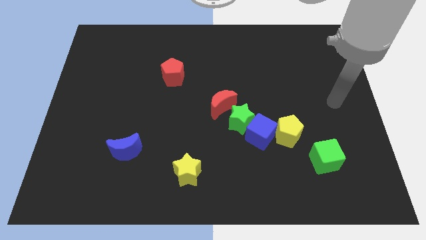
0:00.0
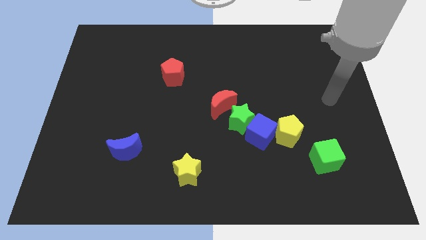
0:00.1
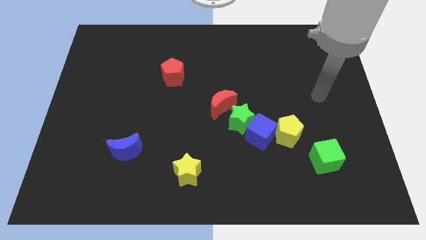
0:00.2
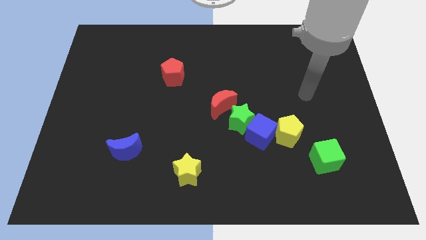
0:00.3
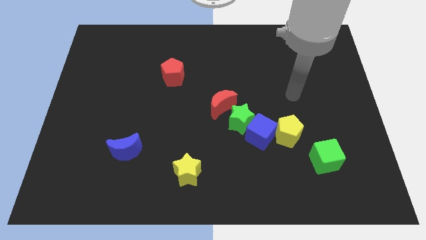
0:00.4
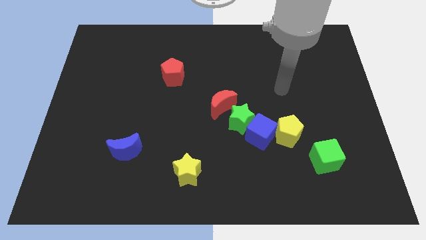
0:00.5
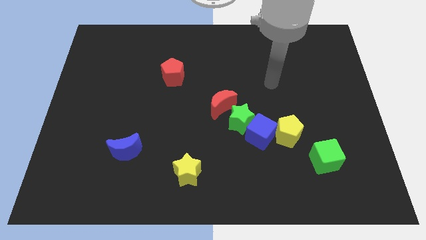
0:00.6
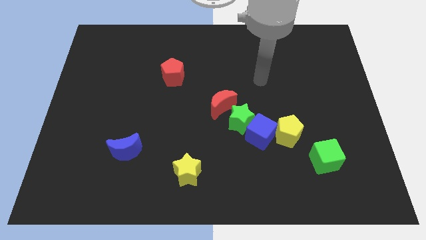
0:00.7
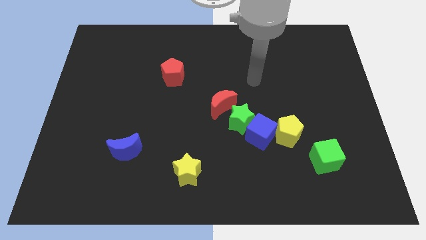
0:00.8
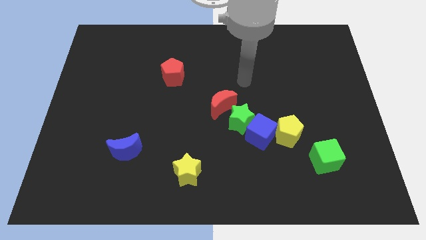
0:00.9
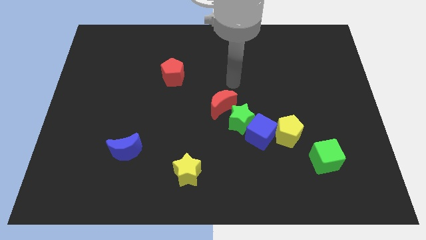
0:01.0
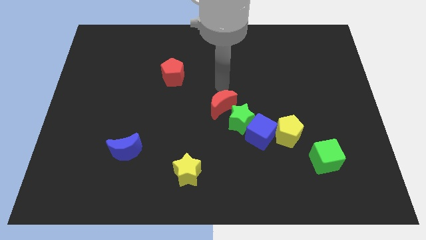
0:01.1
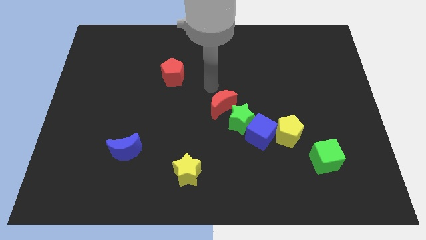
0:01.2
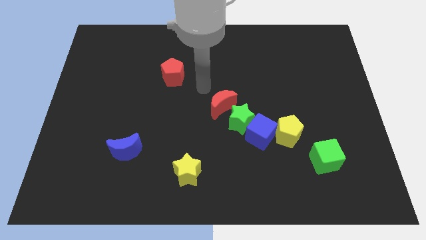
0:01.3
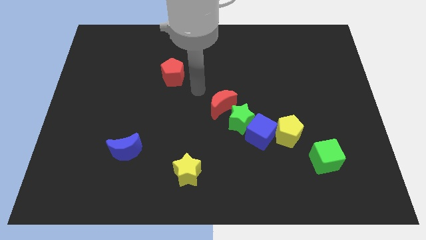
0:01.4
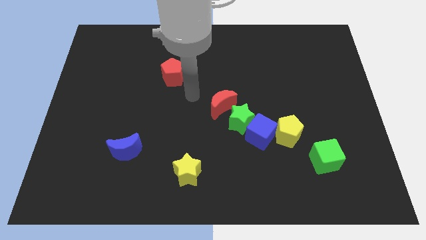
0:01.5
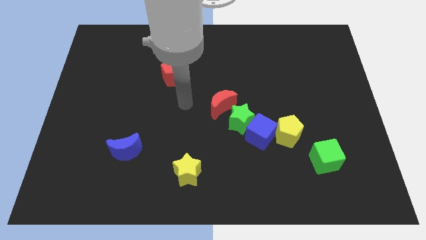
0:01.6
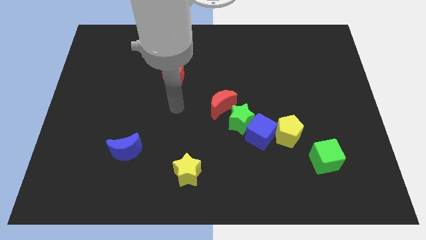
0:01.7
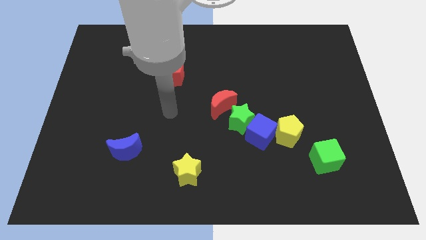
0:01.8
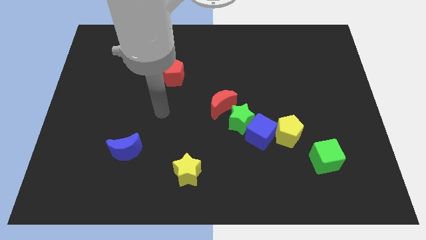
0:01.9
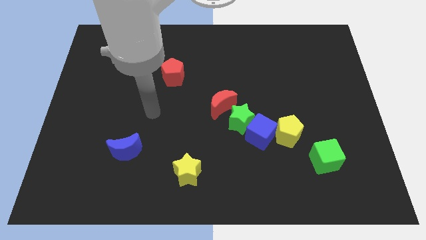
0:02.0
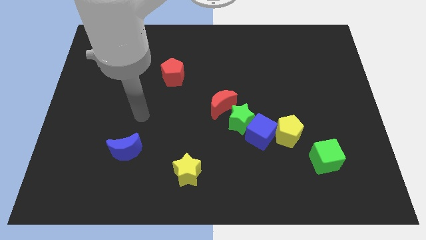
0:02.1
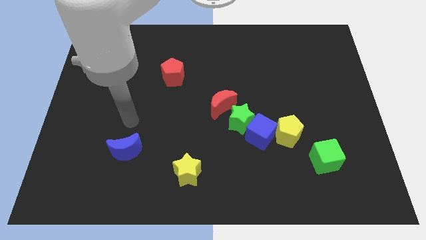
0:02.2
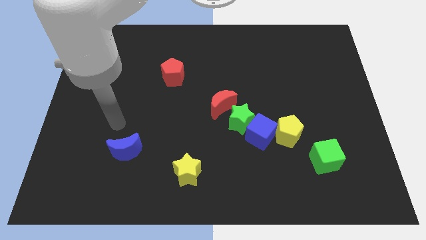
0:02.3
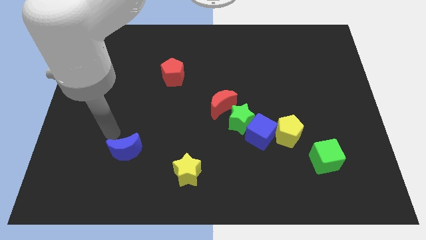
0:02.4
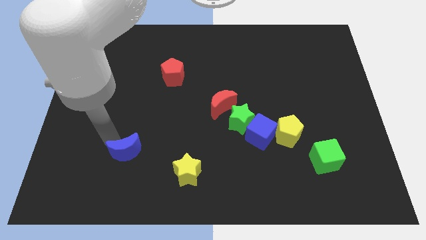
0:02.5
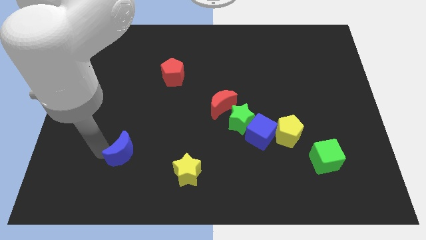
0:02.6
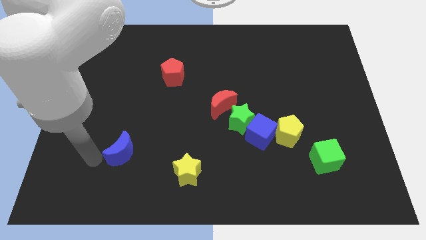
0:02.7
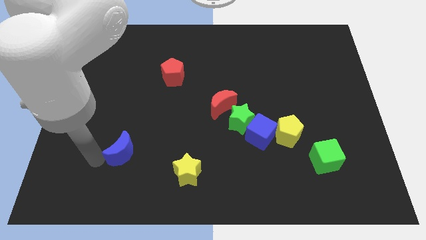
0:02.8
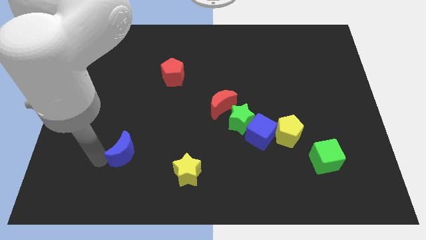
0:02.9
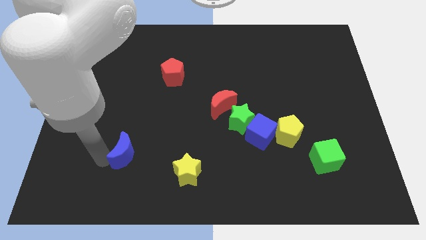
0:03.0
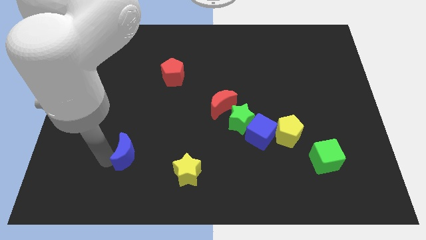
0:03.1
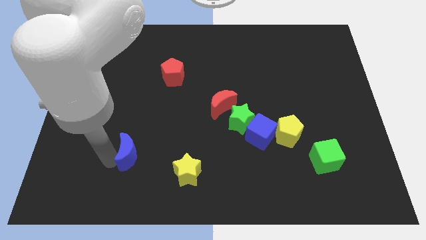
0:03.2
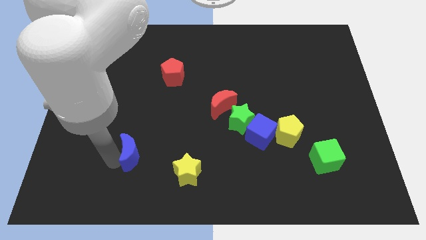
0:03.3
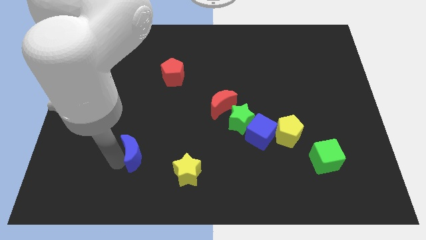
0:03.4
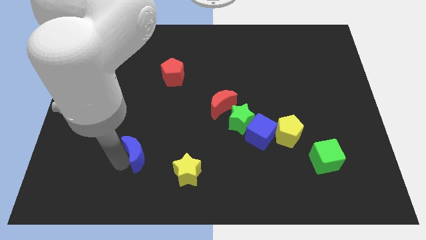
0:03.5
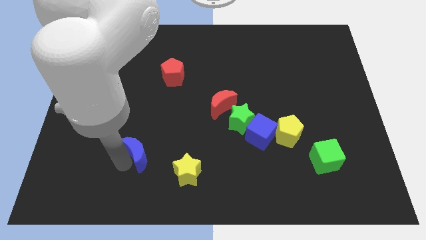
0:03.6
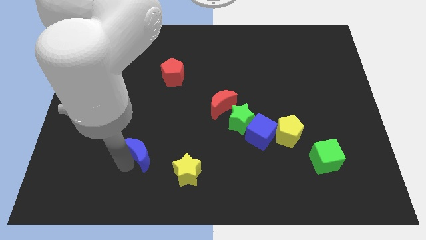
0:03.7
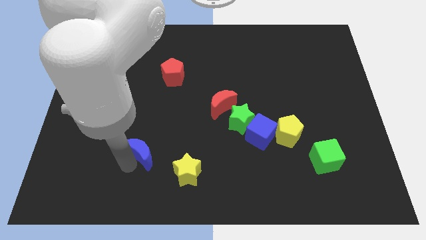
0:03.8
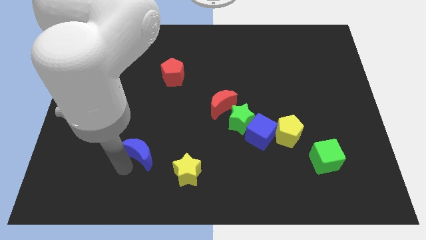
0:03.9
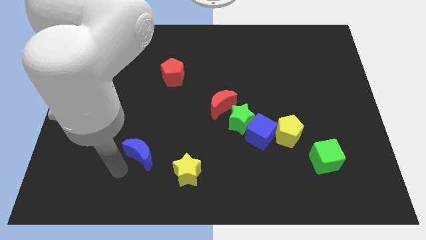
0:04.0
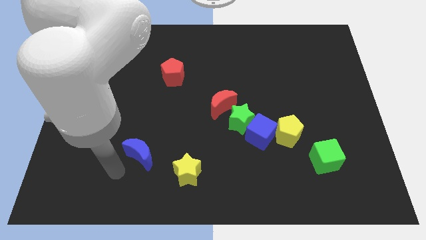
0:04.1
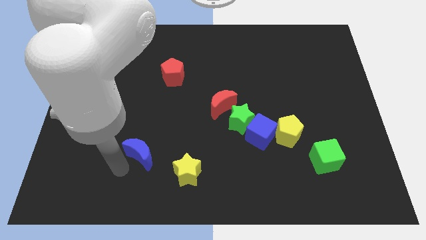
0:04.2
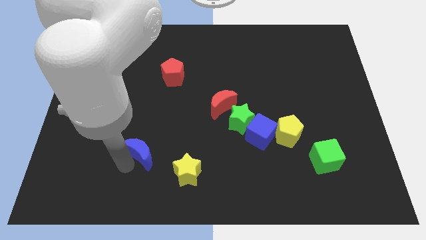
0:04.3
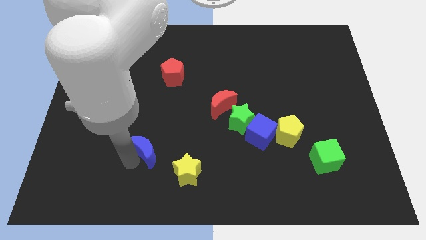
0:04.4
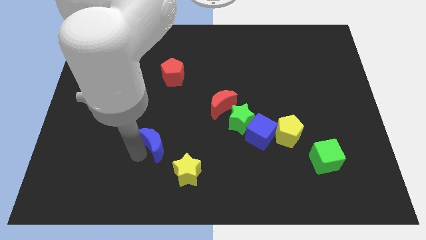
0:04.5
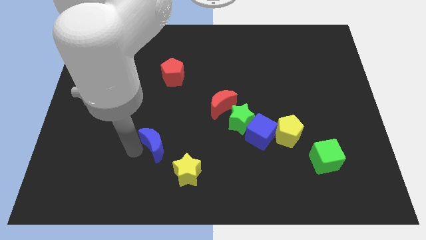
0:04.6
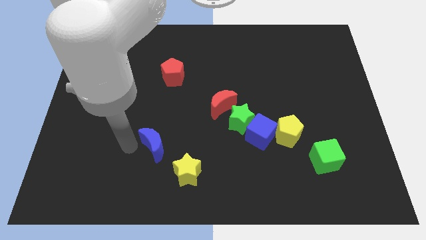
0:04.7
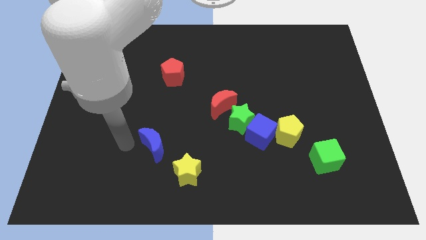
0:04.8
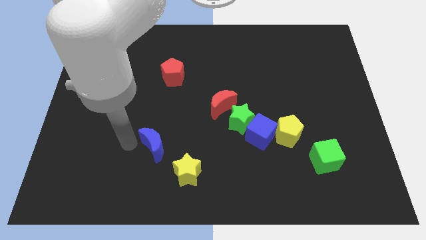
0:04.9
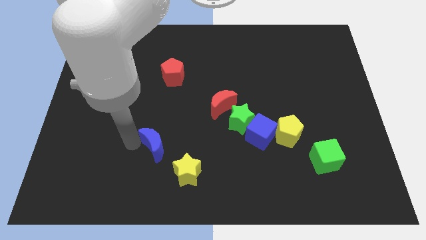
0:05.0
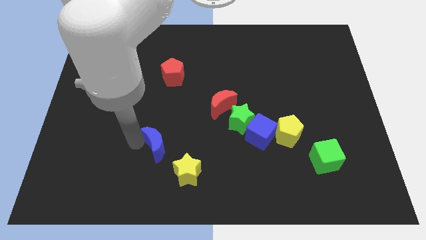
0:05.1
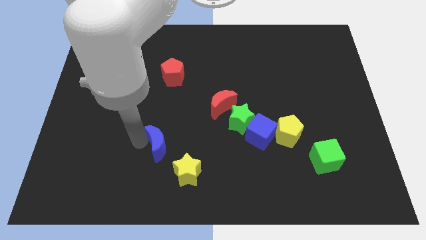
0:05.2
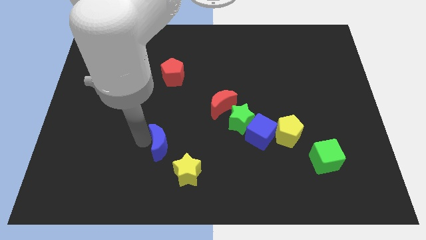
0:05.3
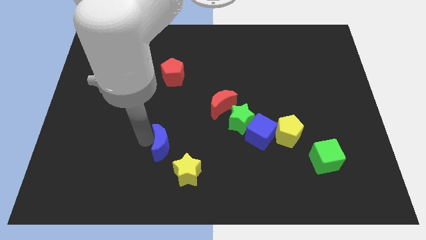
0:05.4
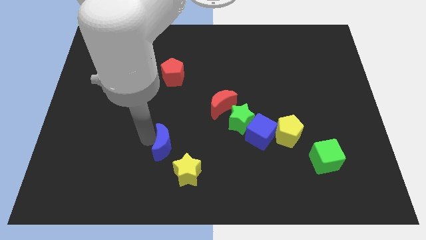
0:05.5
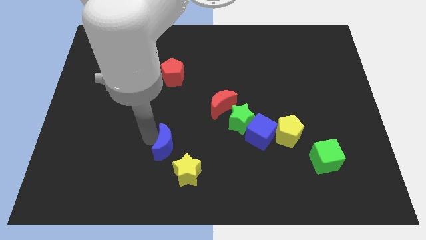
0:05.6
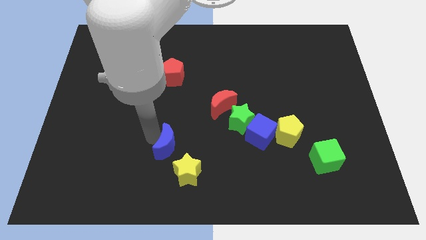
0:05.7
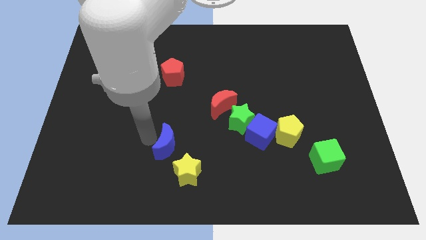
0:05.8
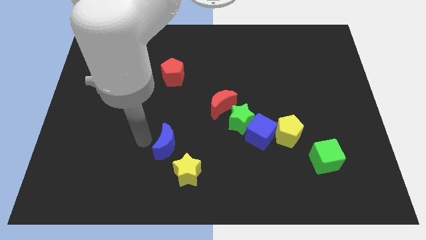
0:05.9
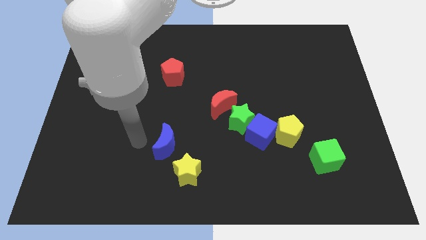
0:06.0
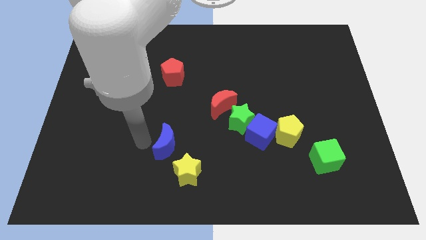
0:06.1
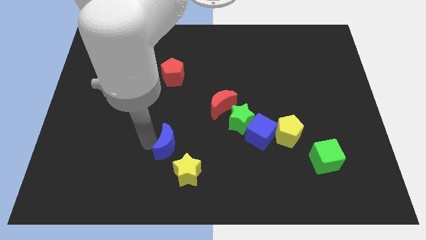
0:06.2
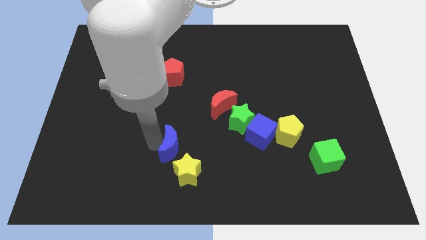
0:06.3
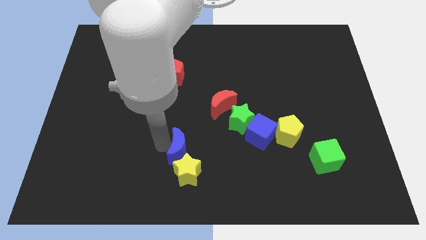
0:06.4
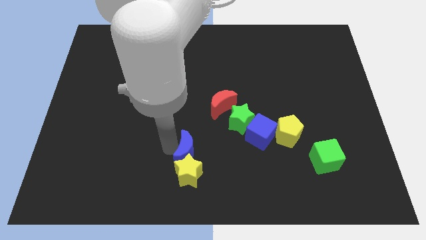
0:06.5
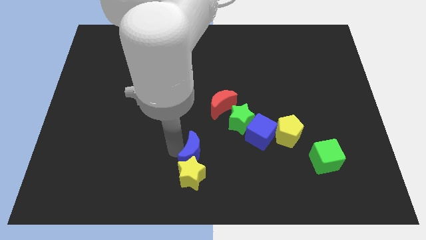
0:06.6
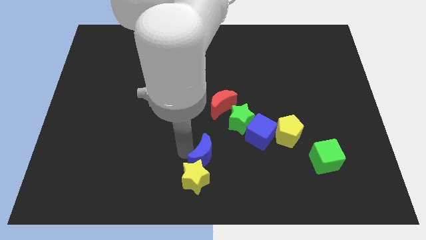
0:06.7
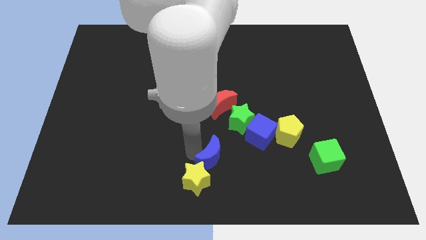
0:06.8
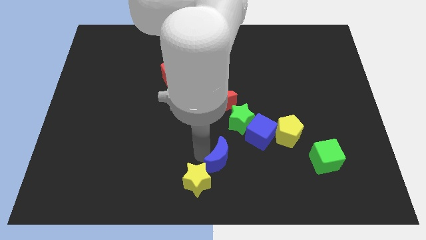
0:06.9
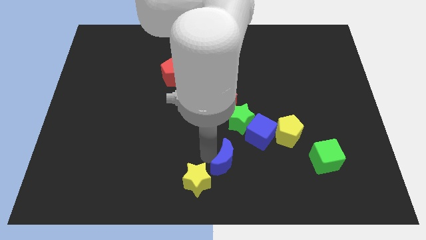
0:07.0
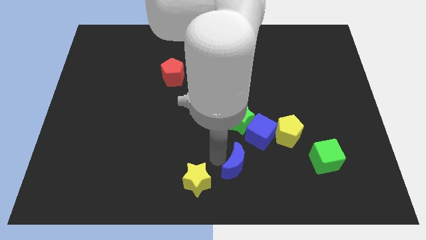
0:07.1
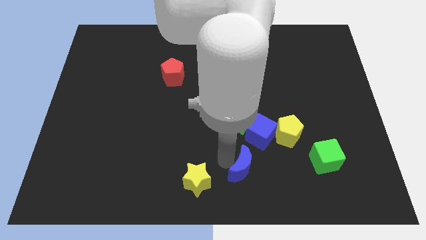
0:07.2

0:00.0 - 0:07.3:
push the blue moon below the blue cube
